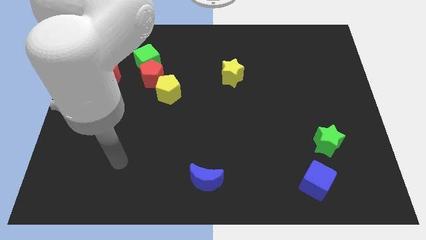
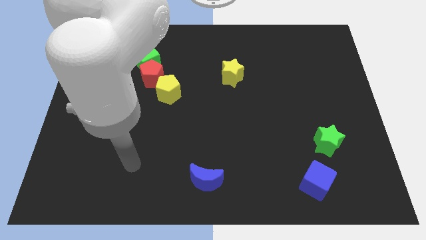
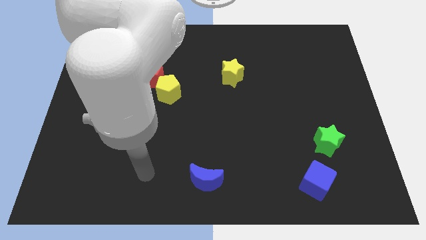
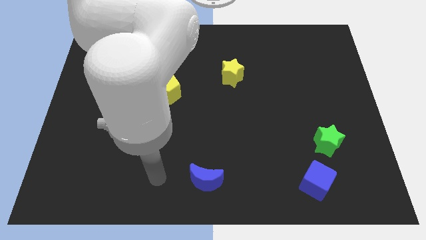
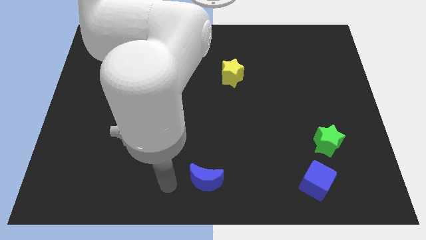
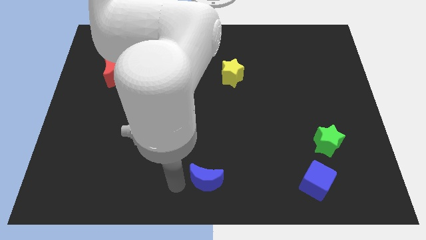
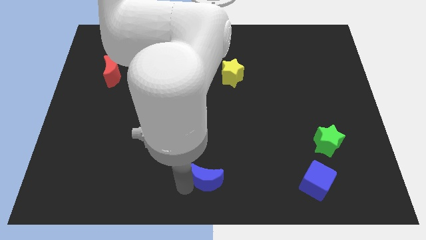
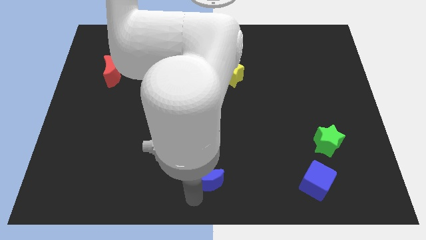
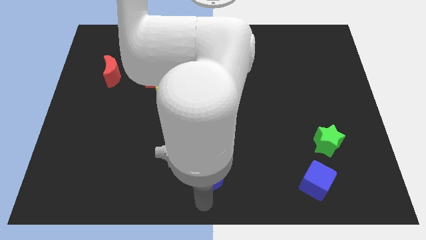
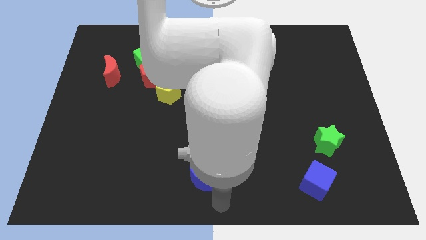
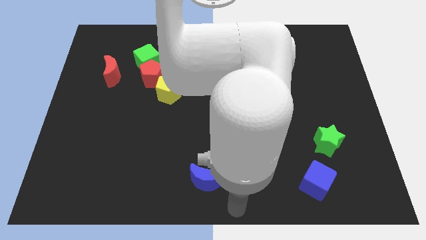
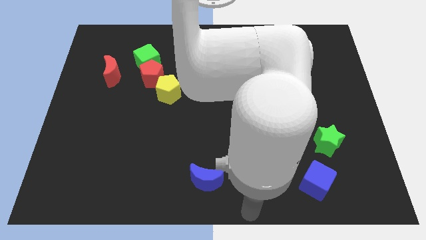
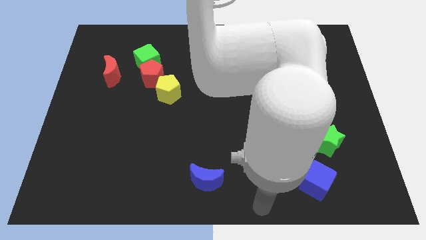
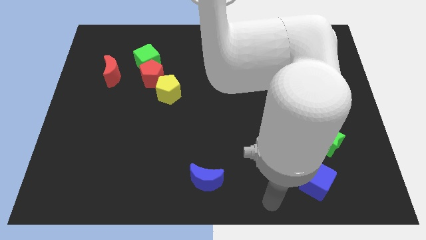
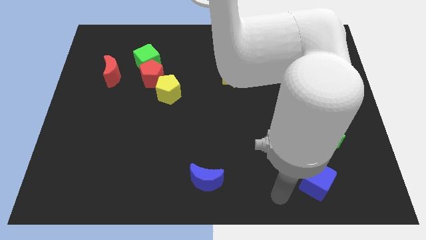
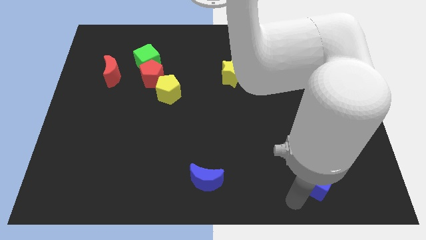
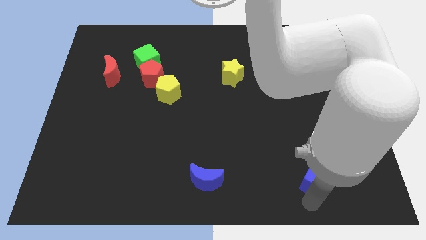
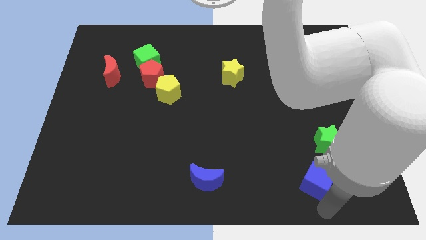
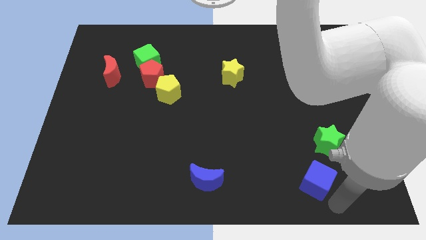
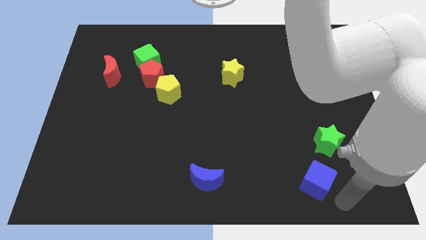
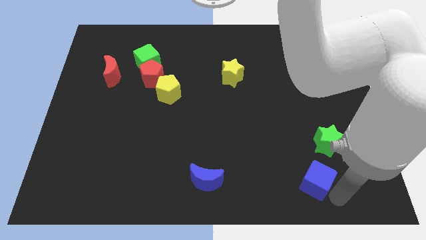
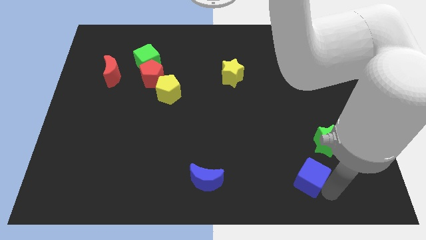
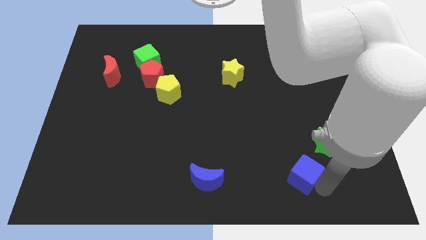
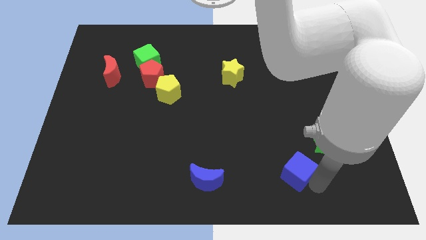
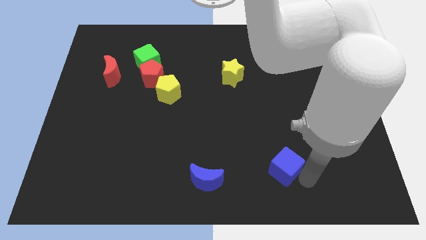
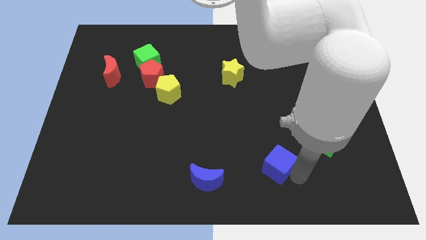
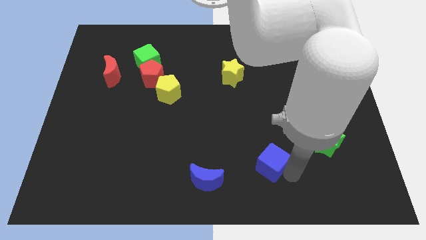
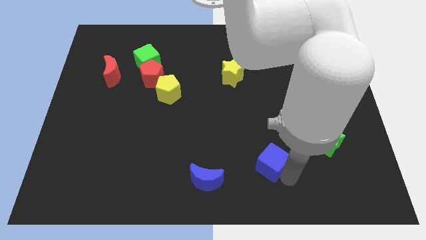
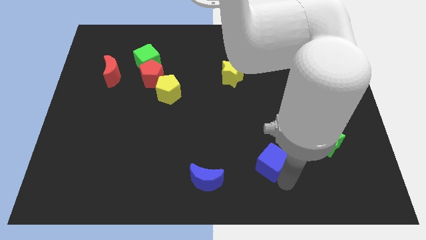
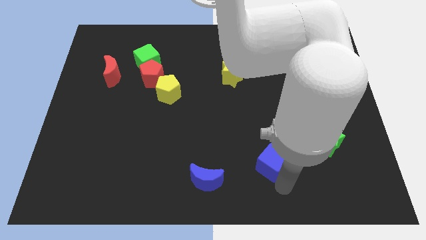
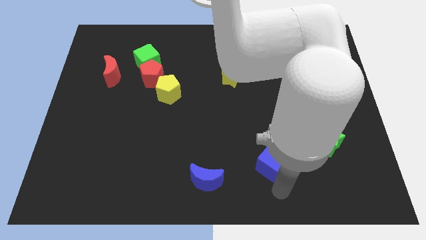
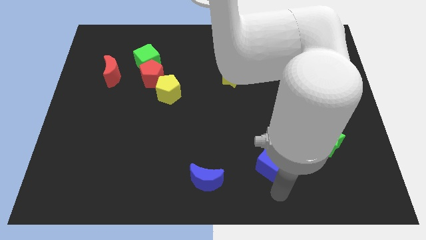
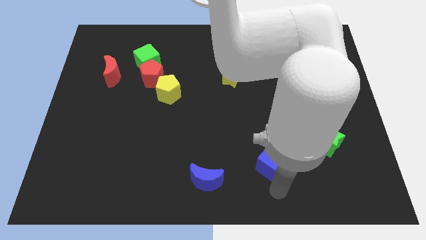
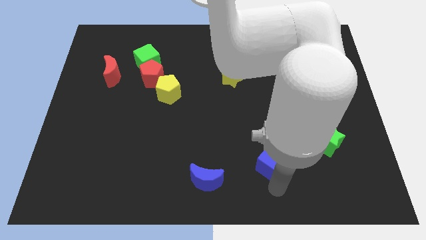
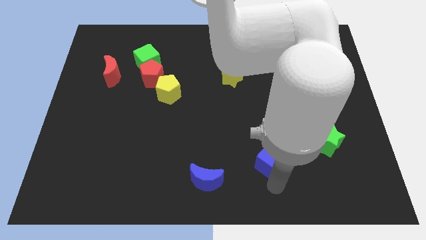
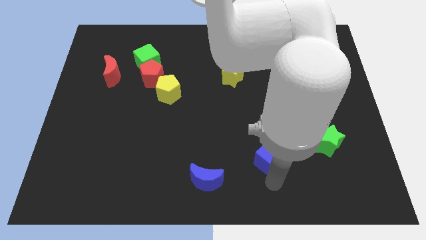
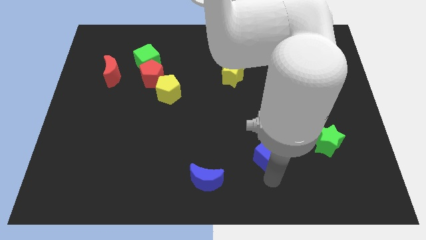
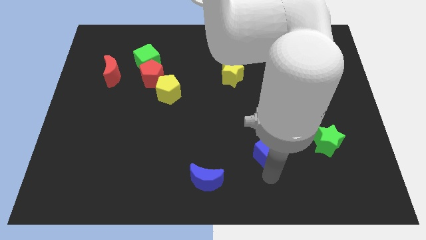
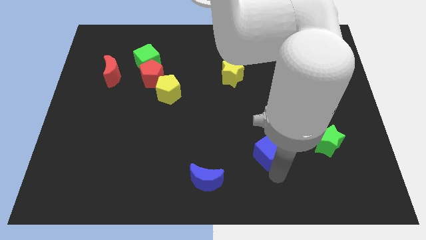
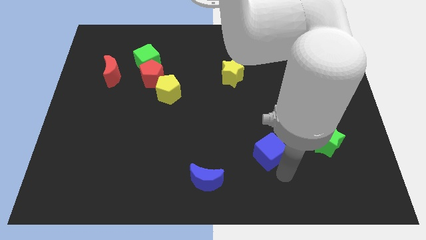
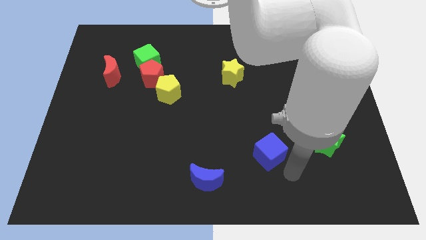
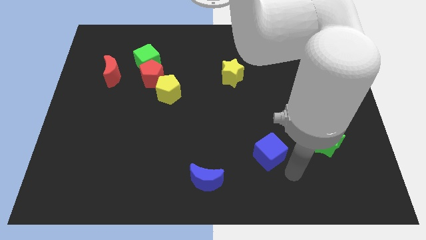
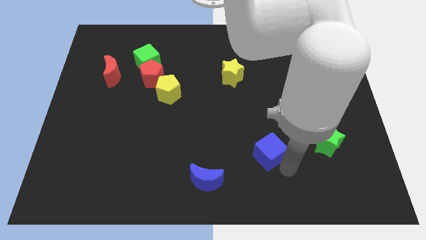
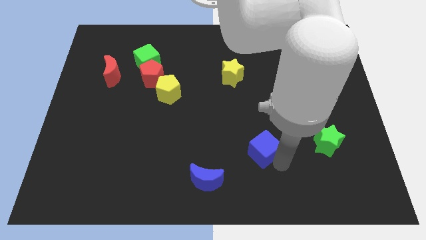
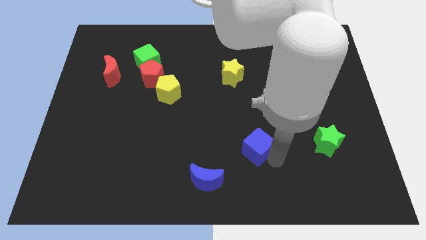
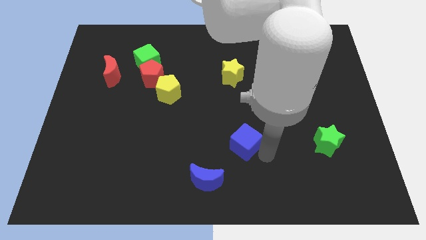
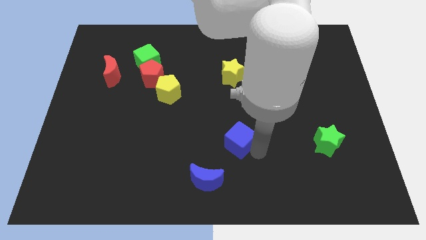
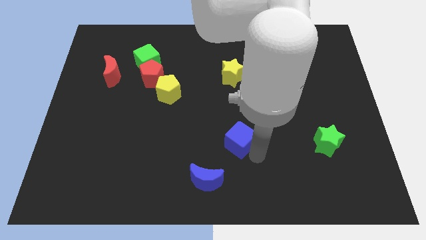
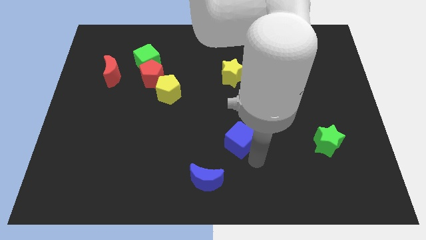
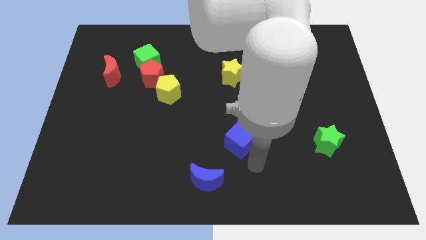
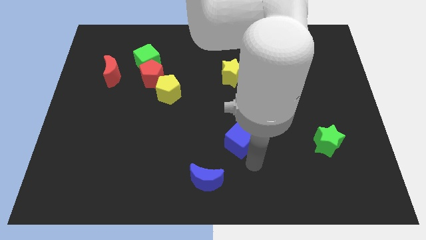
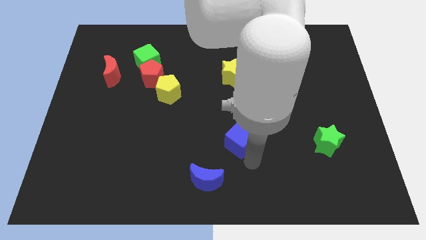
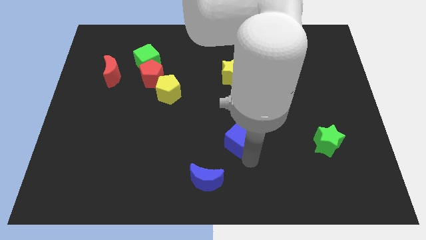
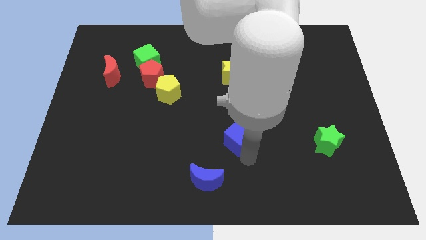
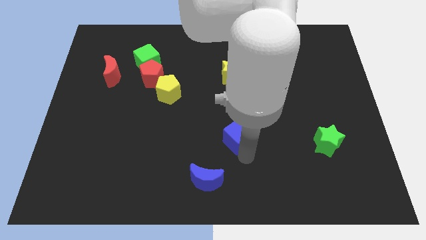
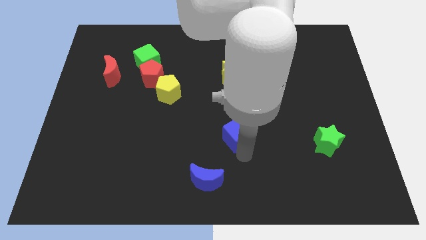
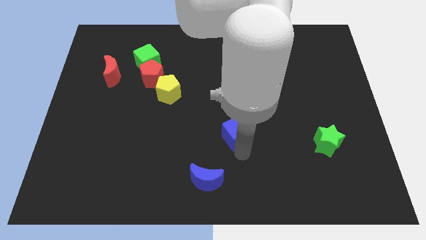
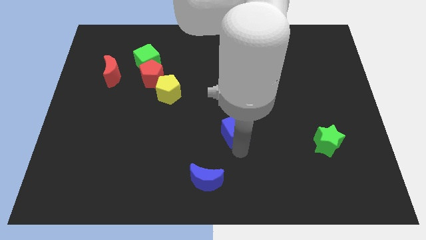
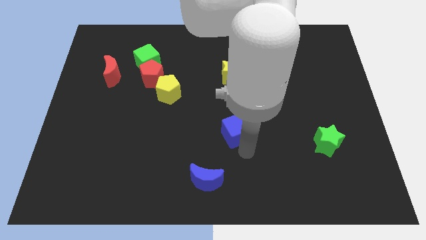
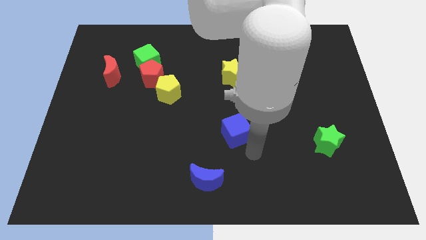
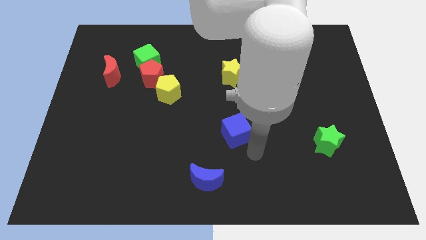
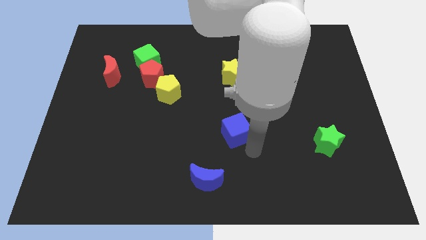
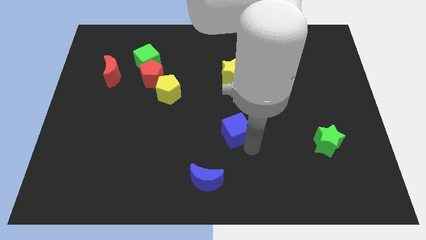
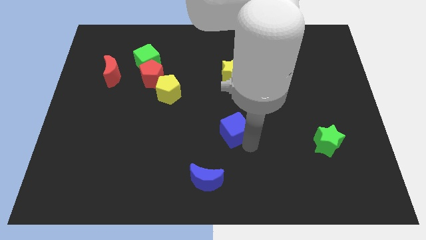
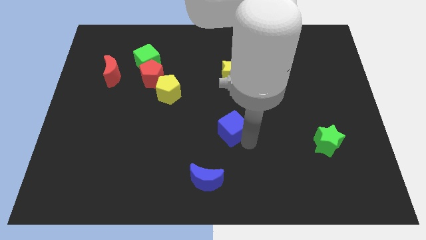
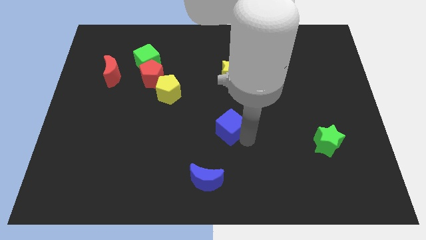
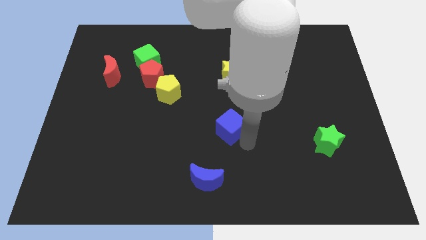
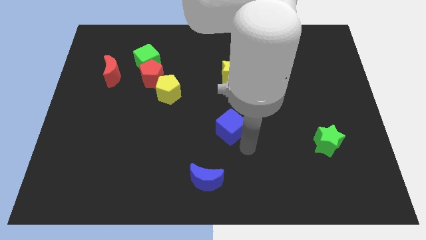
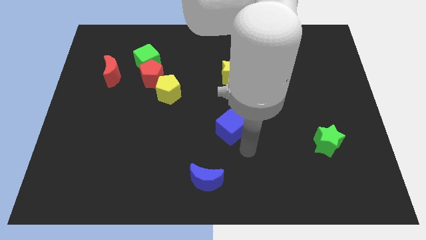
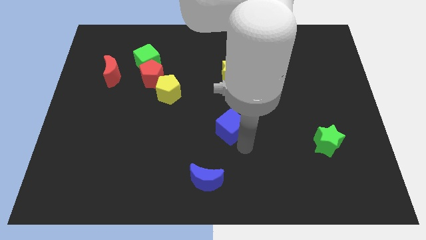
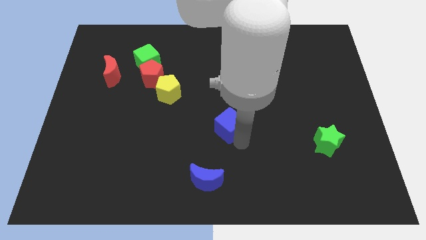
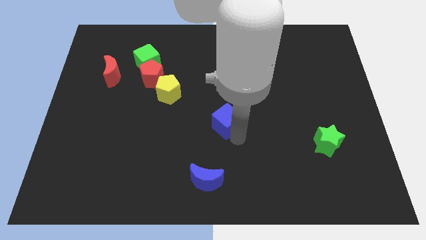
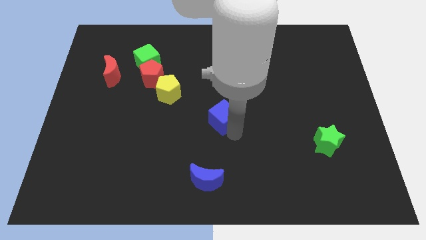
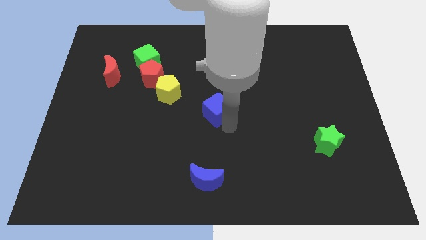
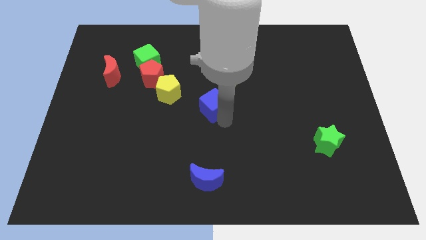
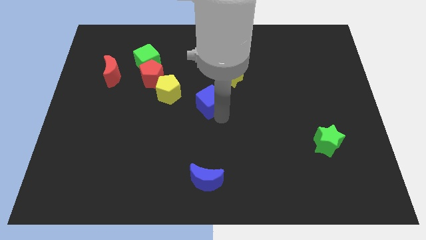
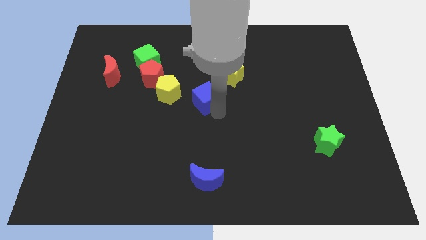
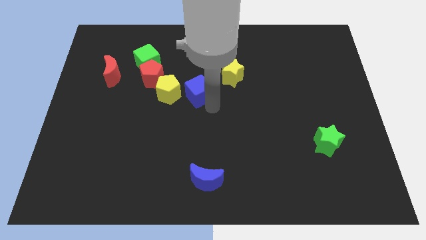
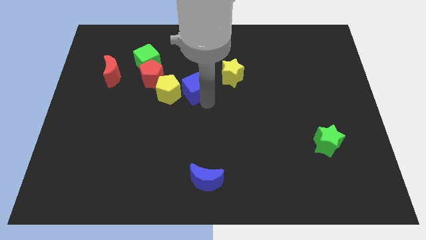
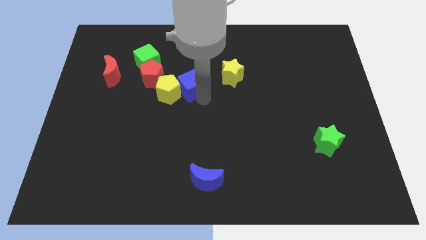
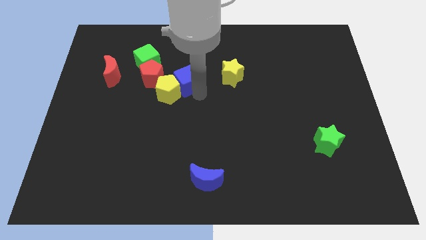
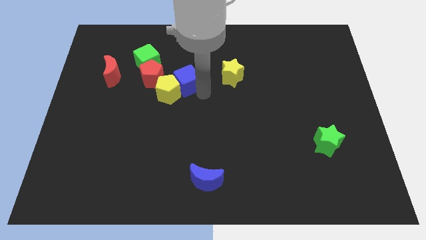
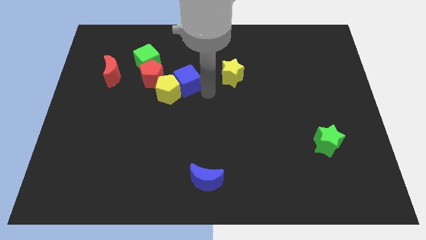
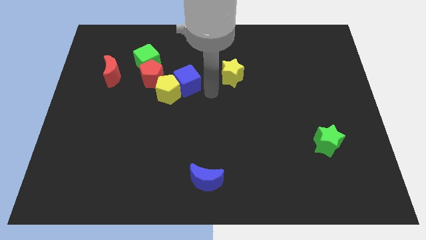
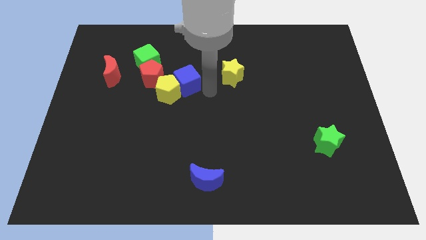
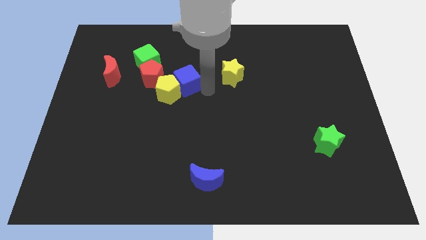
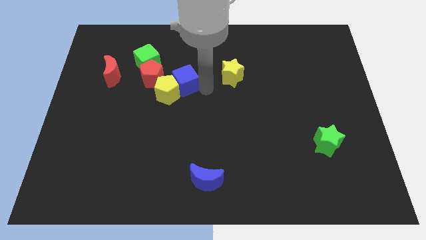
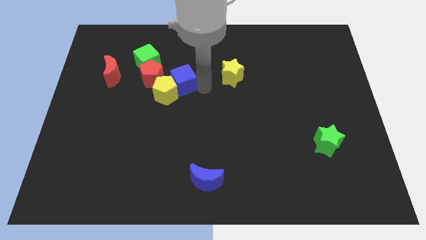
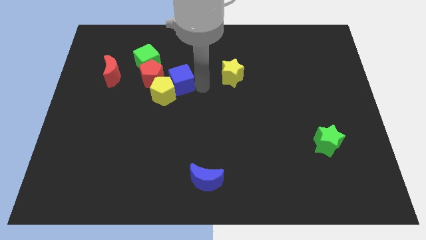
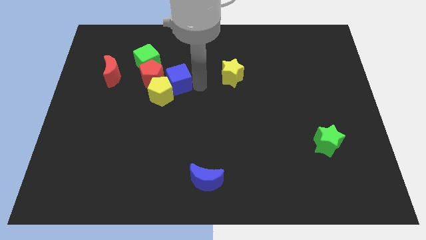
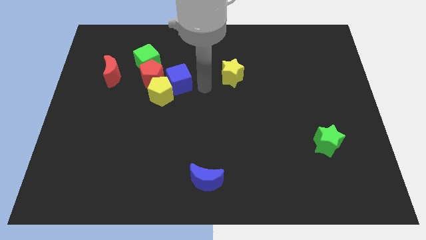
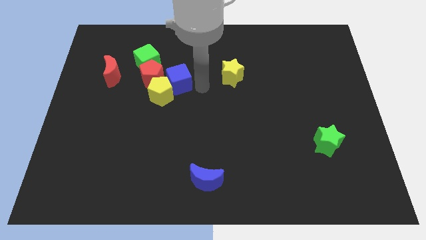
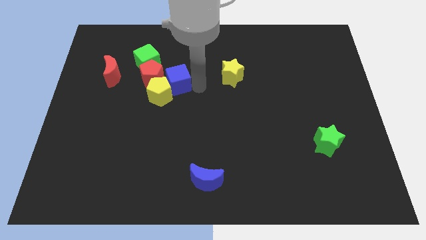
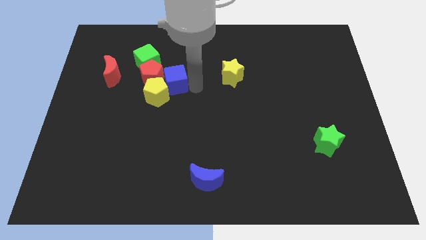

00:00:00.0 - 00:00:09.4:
put the blue cube close to the red pentagon
